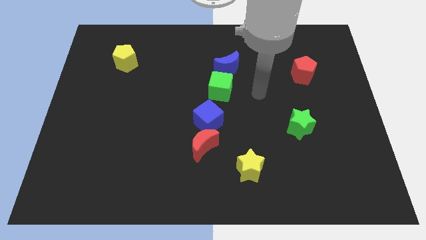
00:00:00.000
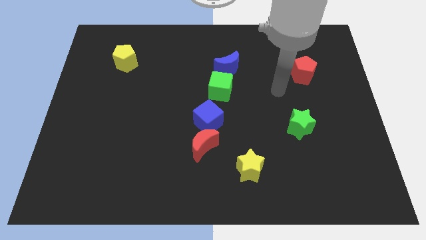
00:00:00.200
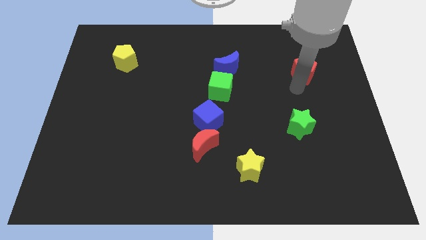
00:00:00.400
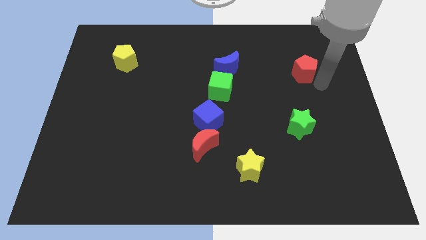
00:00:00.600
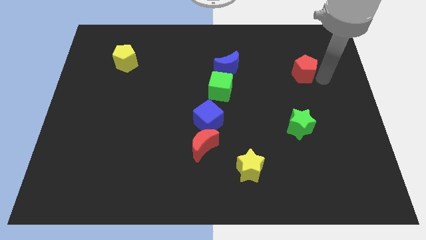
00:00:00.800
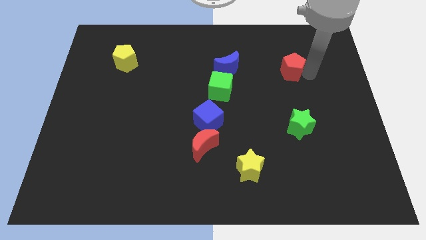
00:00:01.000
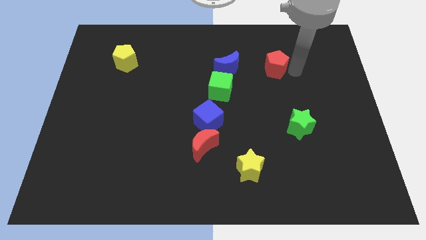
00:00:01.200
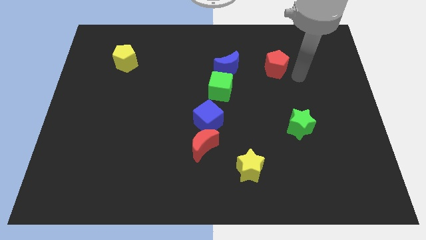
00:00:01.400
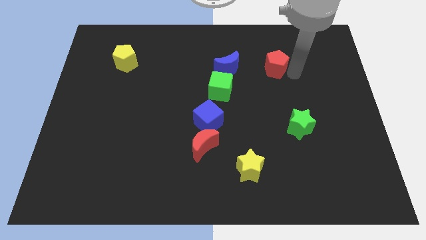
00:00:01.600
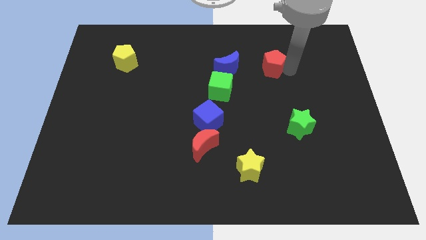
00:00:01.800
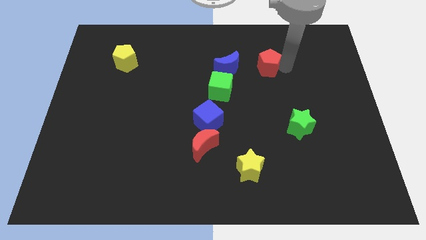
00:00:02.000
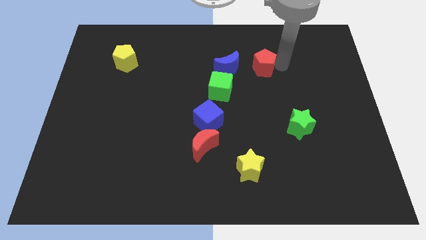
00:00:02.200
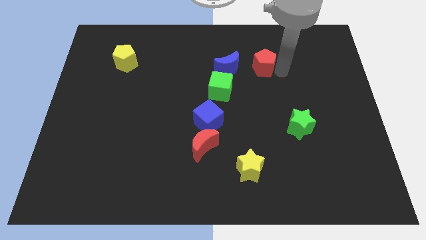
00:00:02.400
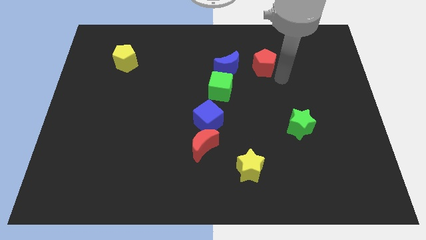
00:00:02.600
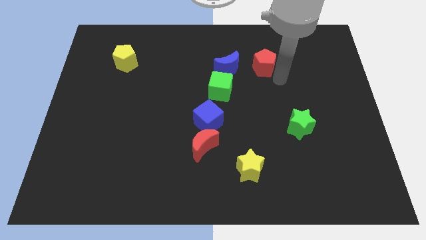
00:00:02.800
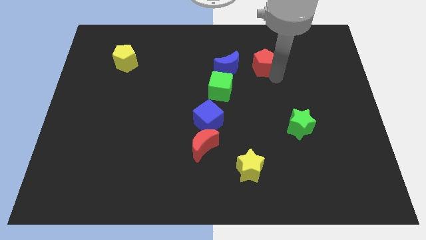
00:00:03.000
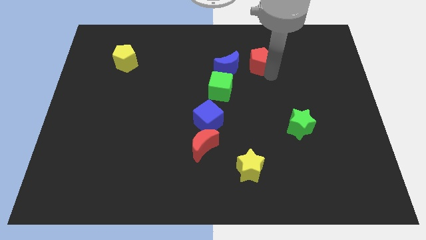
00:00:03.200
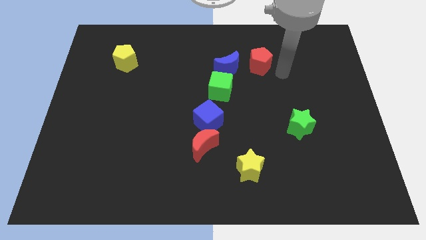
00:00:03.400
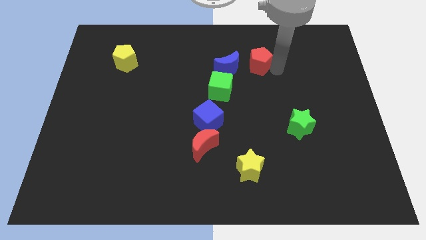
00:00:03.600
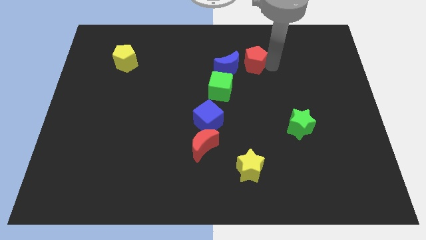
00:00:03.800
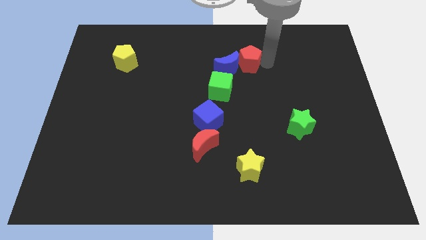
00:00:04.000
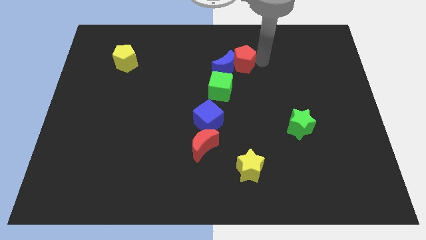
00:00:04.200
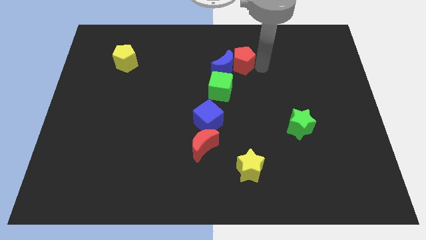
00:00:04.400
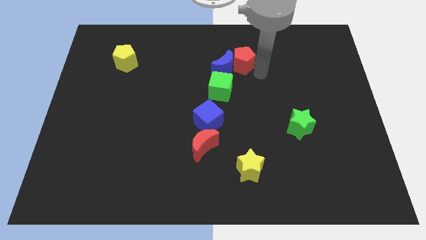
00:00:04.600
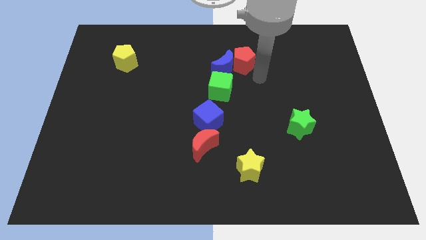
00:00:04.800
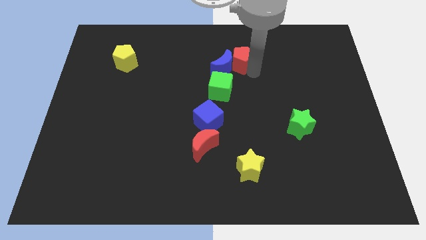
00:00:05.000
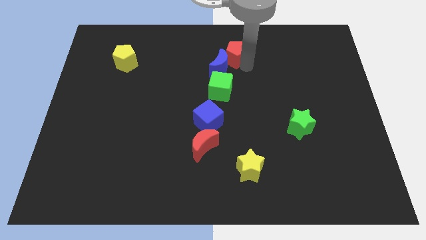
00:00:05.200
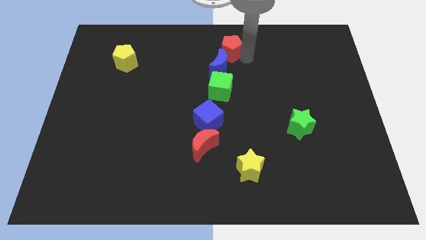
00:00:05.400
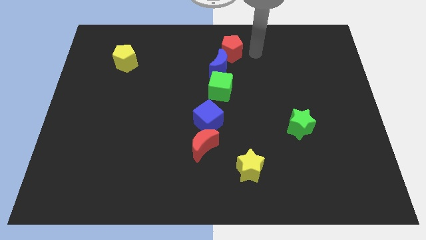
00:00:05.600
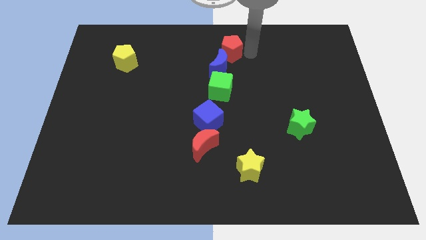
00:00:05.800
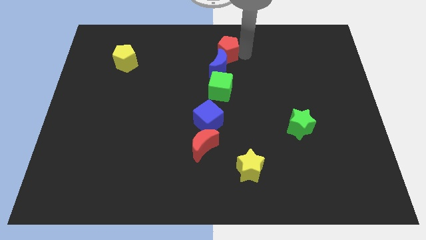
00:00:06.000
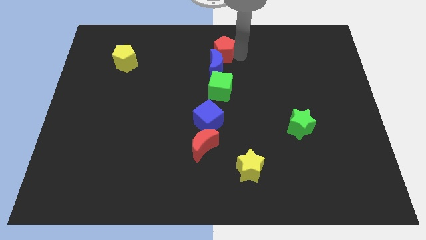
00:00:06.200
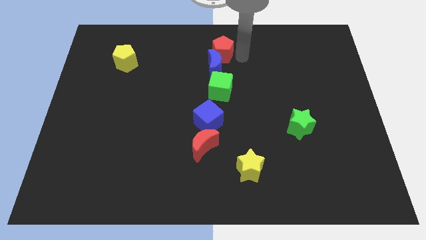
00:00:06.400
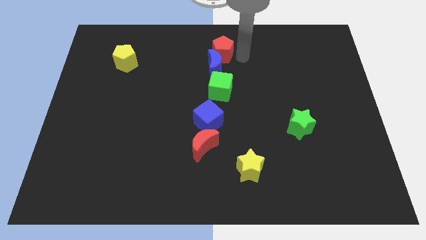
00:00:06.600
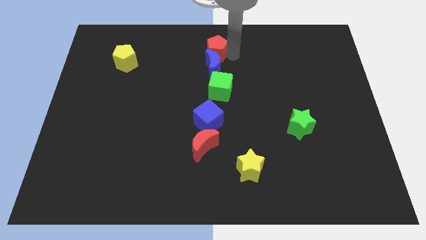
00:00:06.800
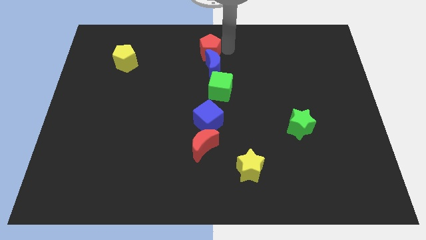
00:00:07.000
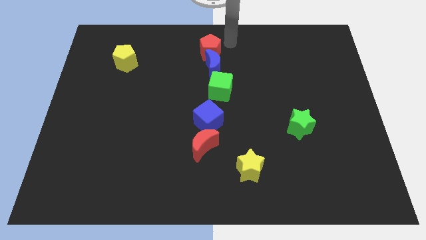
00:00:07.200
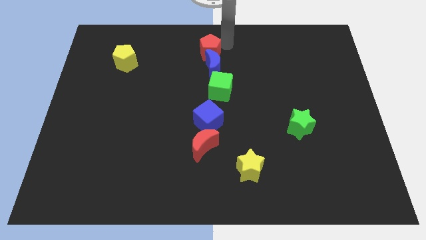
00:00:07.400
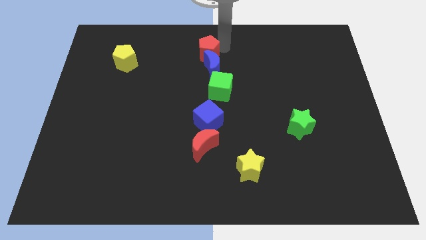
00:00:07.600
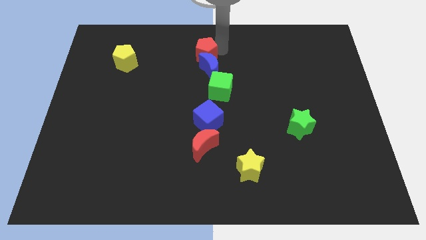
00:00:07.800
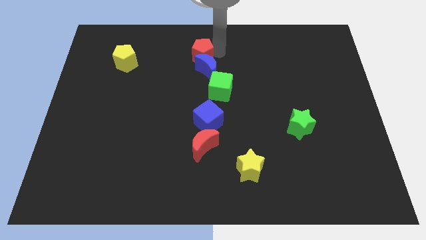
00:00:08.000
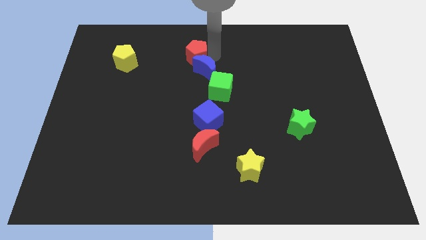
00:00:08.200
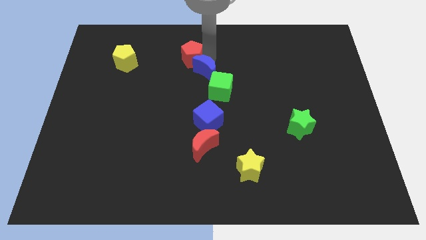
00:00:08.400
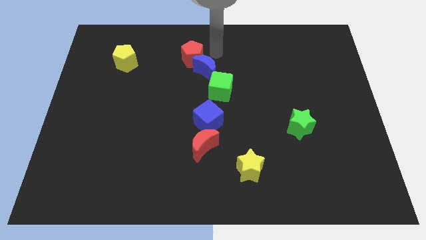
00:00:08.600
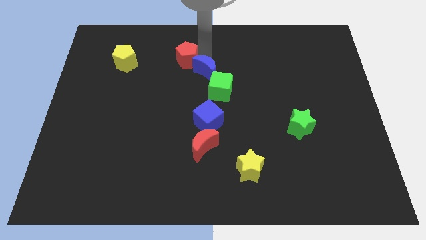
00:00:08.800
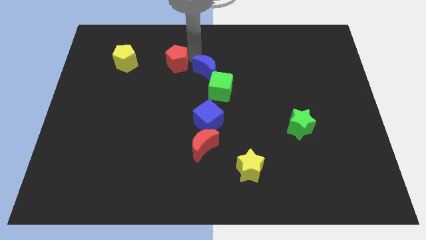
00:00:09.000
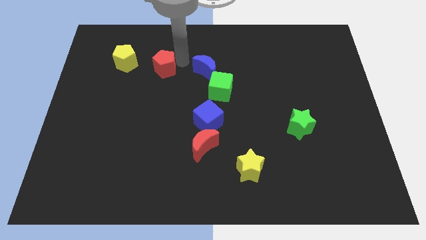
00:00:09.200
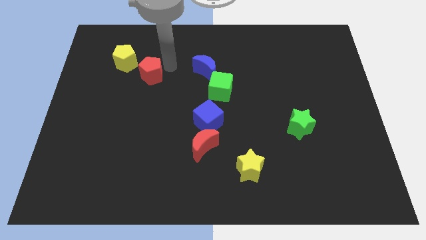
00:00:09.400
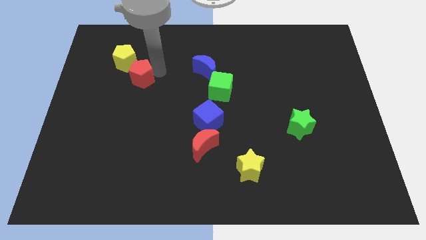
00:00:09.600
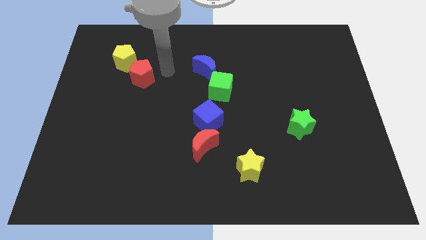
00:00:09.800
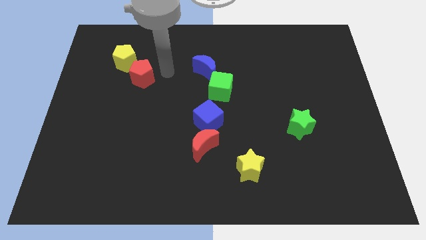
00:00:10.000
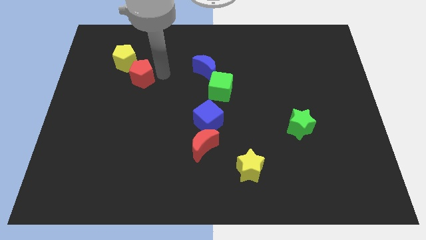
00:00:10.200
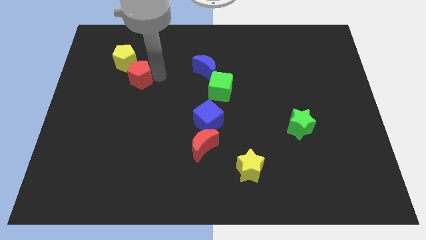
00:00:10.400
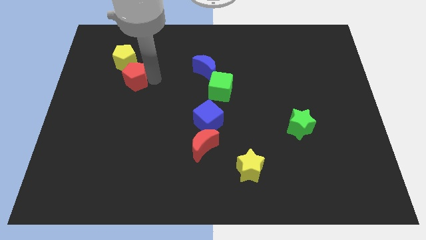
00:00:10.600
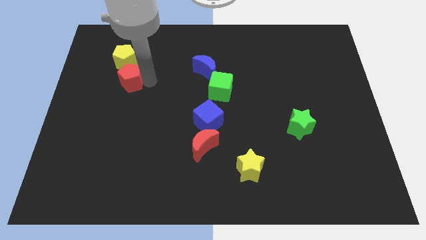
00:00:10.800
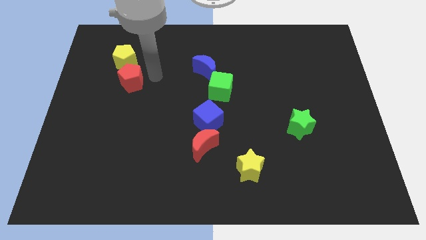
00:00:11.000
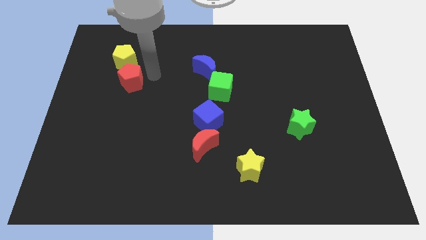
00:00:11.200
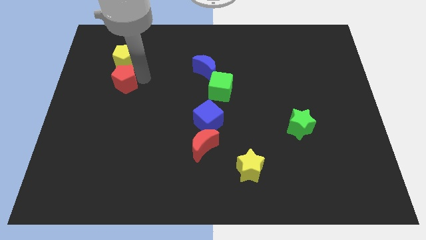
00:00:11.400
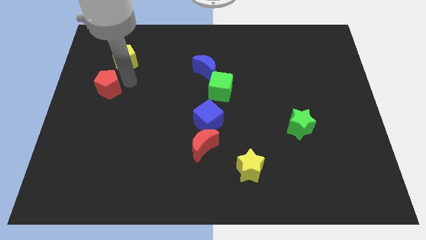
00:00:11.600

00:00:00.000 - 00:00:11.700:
slide the red pentagon to the left side
